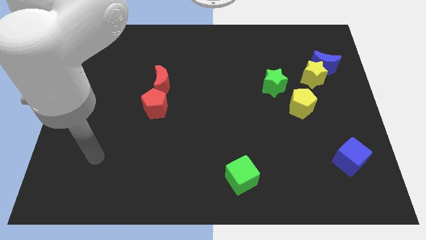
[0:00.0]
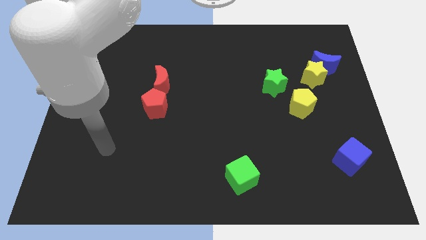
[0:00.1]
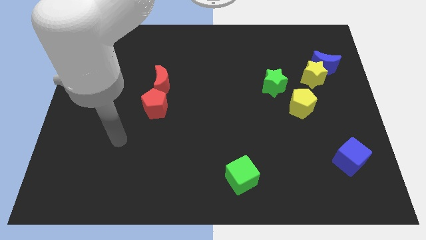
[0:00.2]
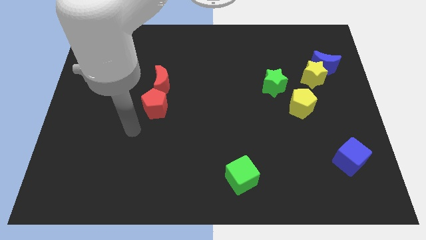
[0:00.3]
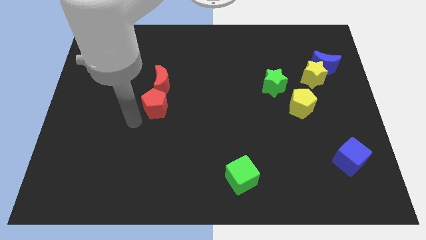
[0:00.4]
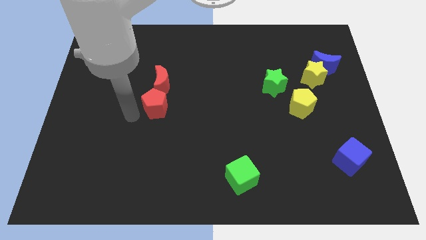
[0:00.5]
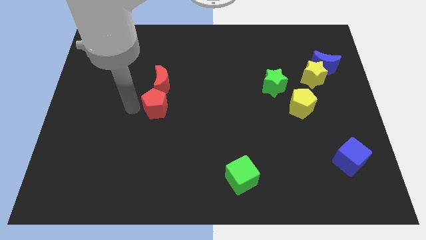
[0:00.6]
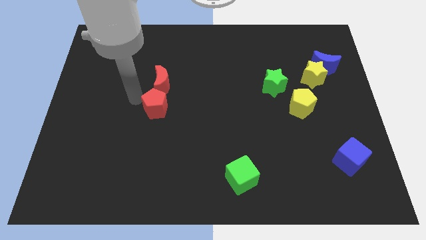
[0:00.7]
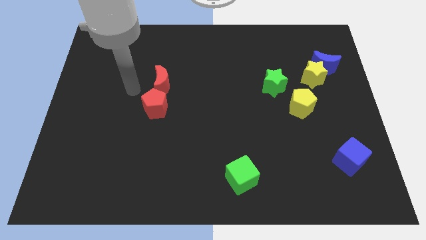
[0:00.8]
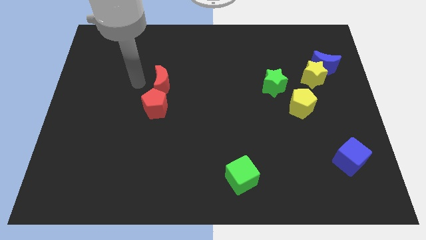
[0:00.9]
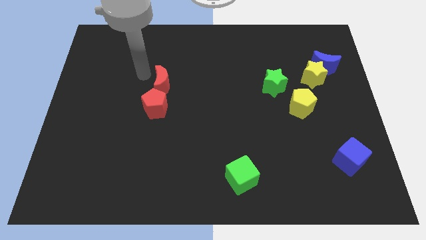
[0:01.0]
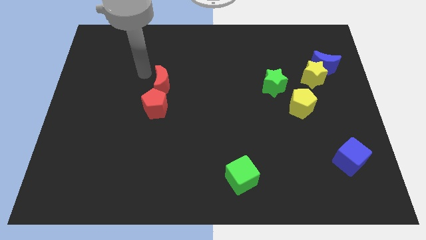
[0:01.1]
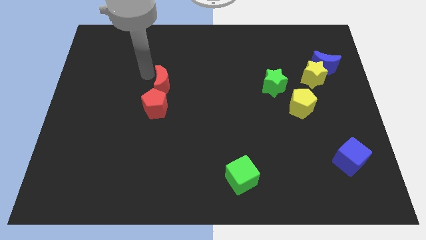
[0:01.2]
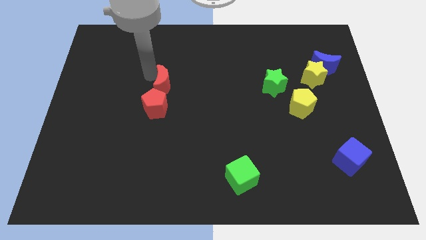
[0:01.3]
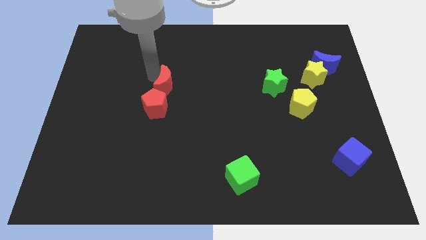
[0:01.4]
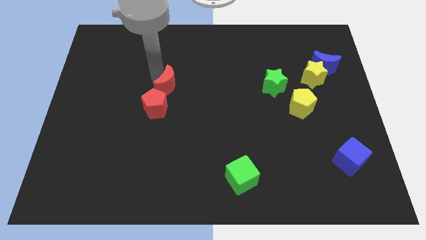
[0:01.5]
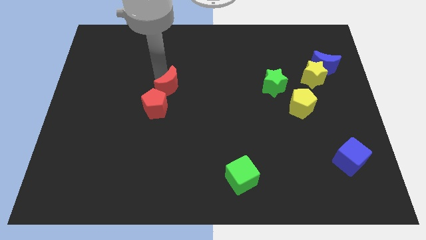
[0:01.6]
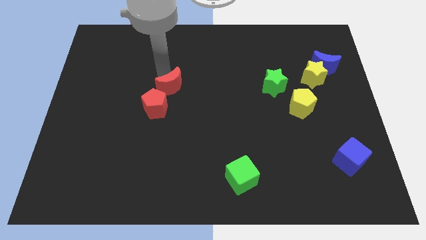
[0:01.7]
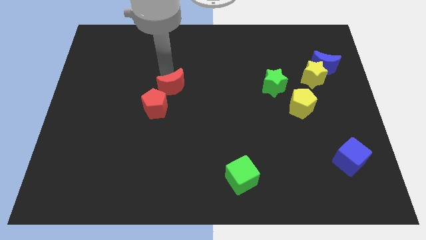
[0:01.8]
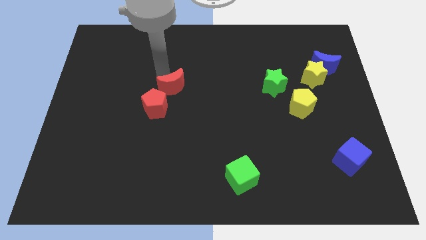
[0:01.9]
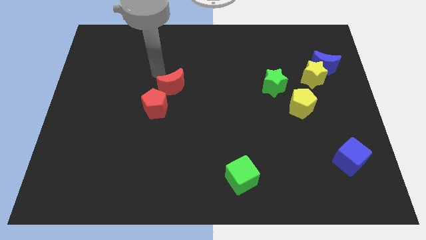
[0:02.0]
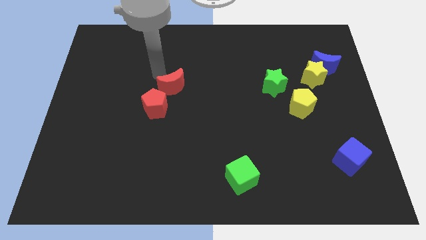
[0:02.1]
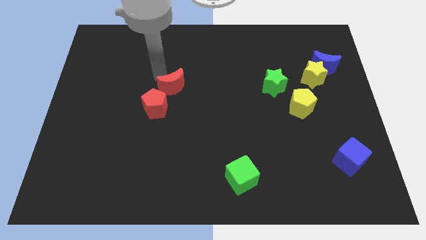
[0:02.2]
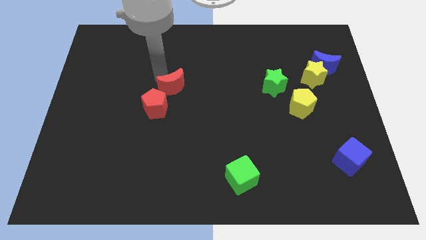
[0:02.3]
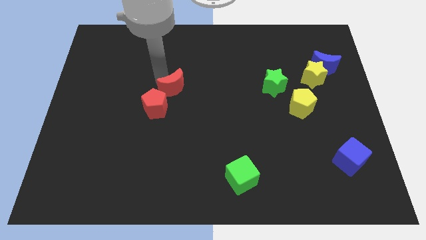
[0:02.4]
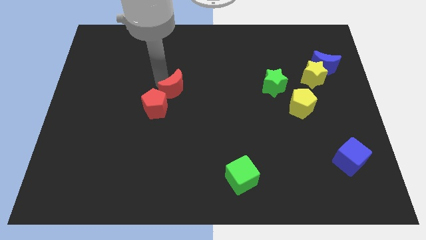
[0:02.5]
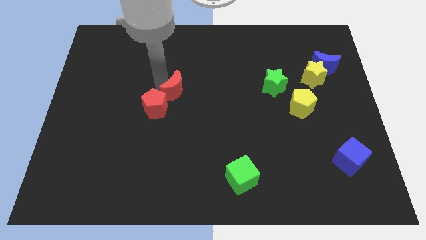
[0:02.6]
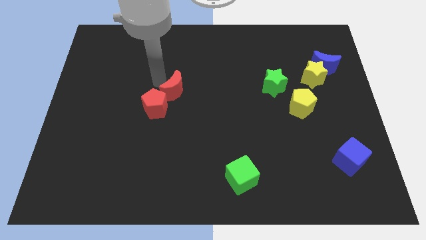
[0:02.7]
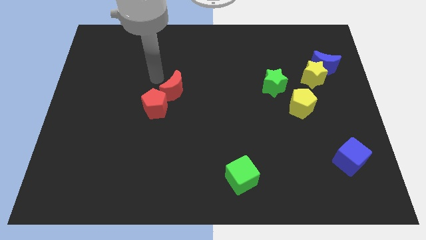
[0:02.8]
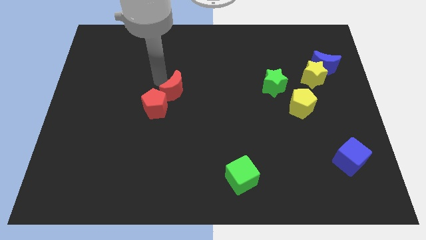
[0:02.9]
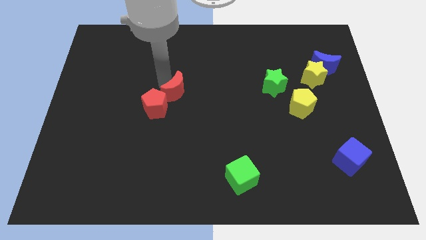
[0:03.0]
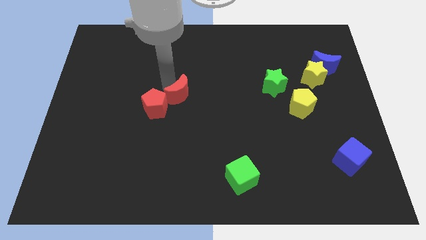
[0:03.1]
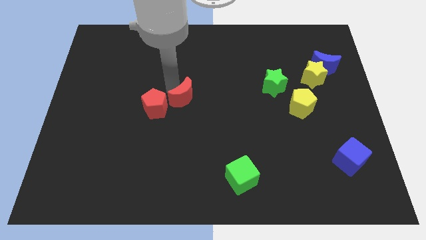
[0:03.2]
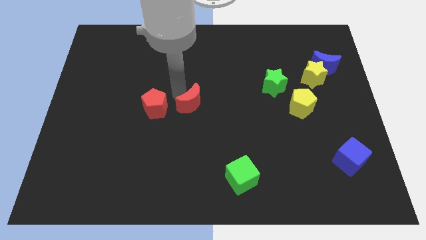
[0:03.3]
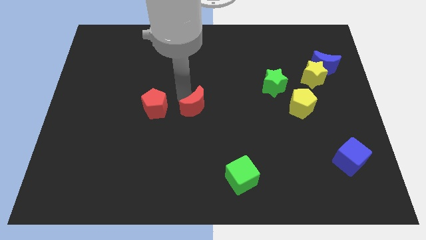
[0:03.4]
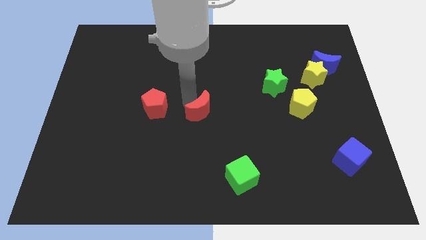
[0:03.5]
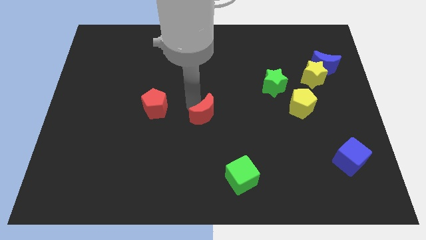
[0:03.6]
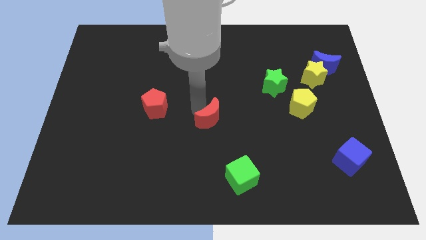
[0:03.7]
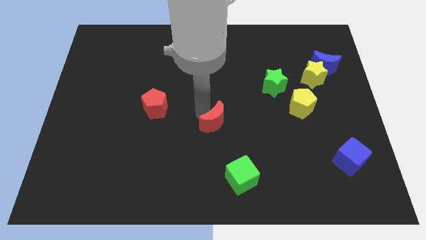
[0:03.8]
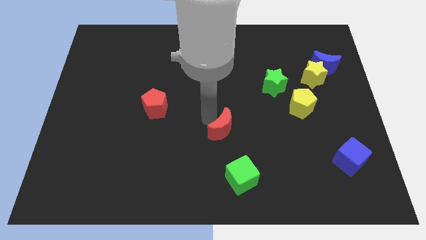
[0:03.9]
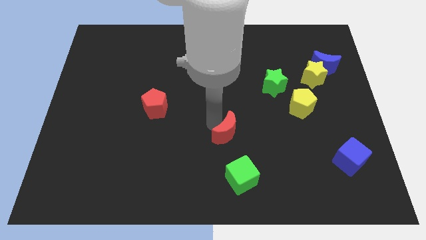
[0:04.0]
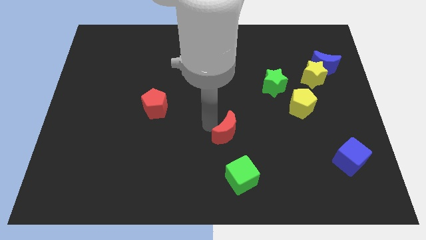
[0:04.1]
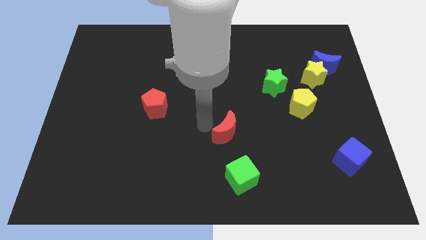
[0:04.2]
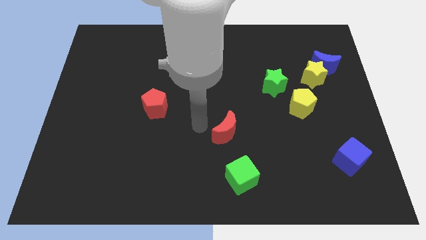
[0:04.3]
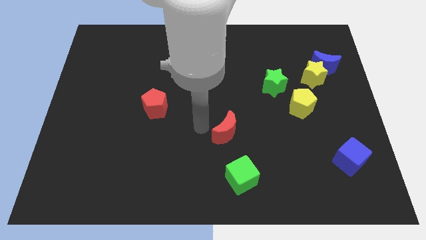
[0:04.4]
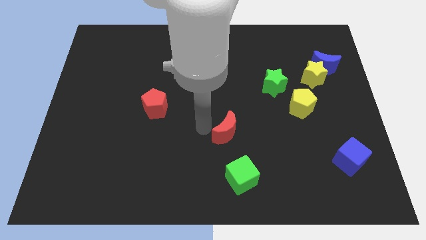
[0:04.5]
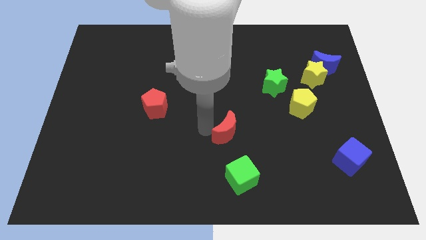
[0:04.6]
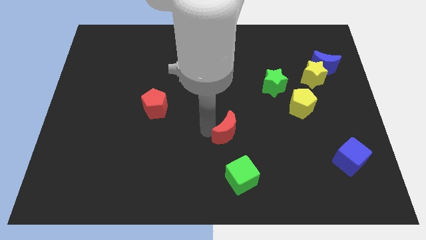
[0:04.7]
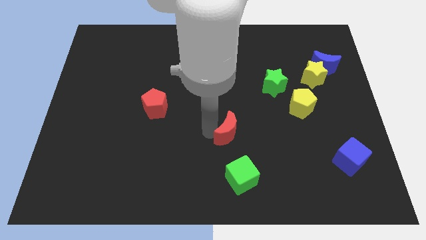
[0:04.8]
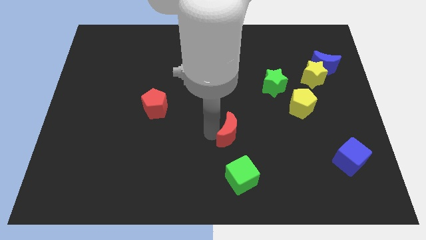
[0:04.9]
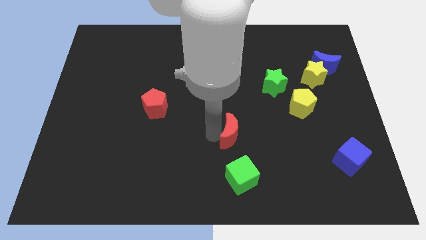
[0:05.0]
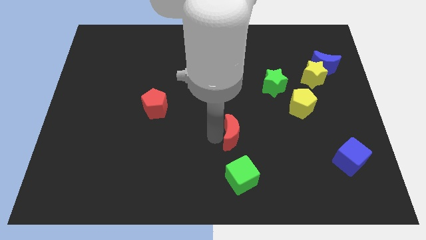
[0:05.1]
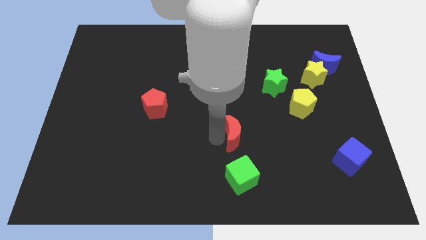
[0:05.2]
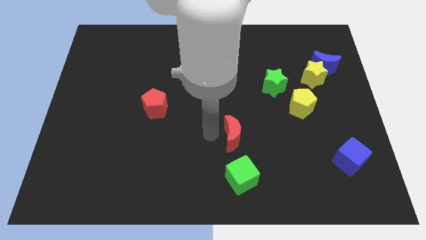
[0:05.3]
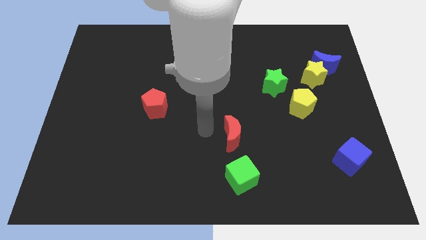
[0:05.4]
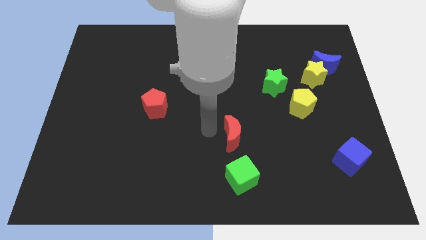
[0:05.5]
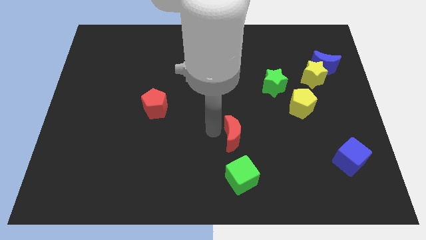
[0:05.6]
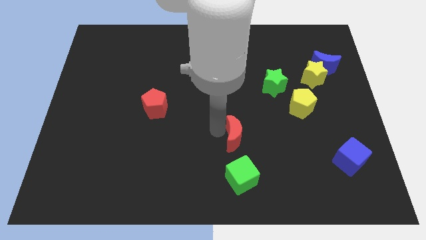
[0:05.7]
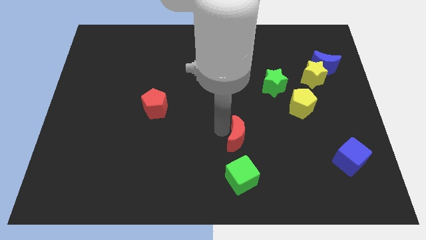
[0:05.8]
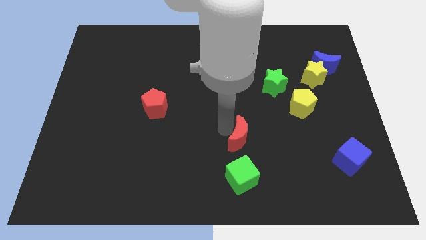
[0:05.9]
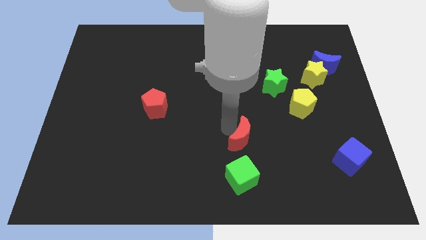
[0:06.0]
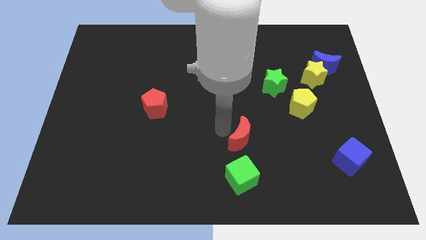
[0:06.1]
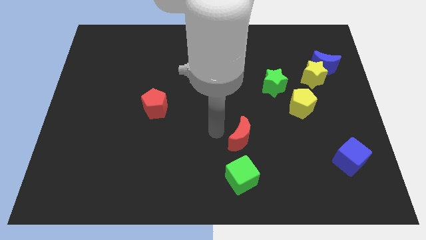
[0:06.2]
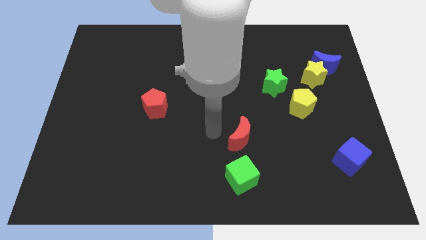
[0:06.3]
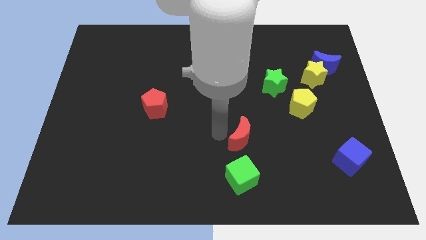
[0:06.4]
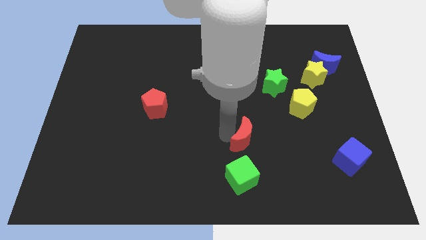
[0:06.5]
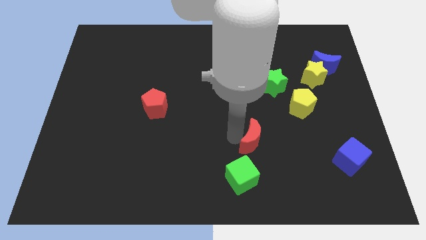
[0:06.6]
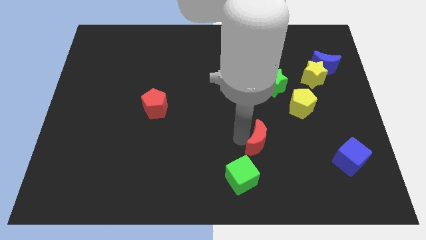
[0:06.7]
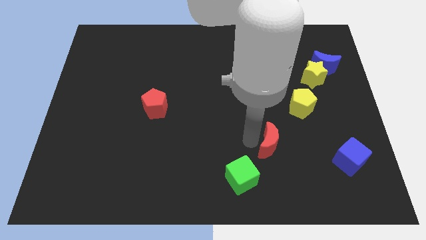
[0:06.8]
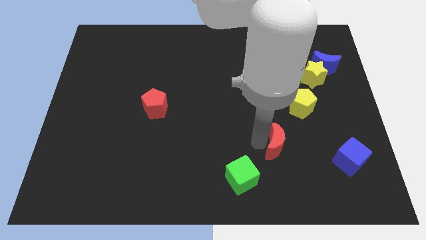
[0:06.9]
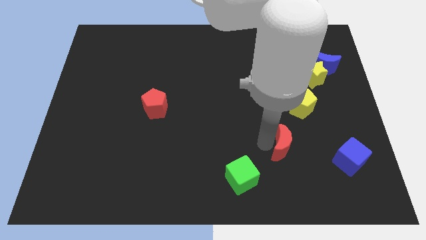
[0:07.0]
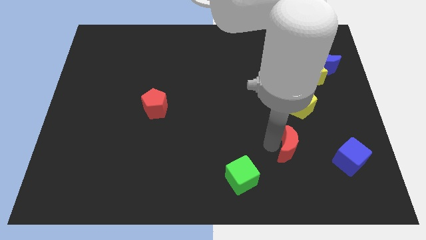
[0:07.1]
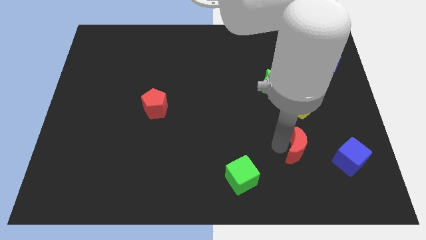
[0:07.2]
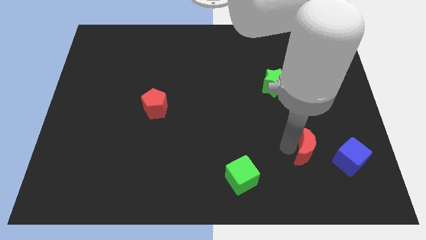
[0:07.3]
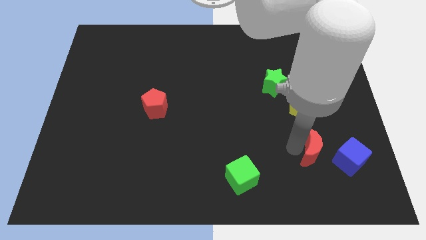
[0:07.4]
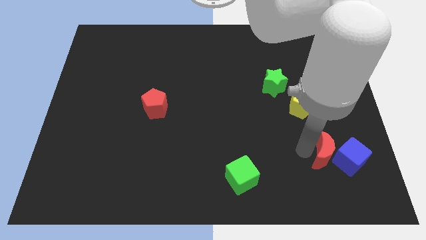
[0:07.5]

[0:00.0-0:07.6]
put the red moon next to the blue cube
